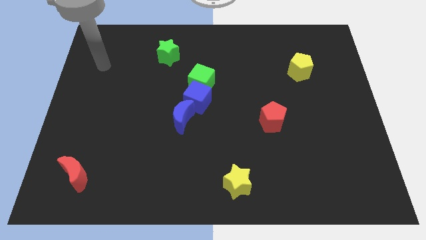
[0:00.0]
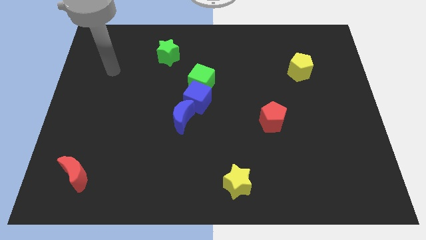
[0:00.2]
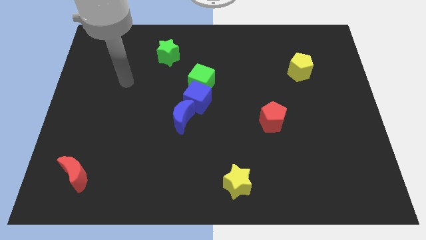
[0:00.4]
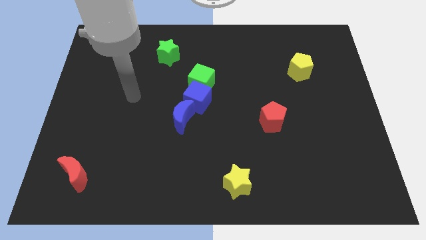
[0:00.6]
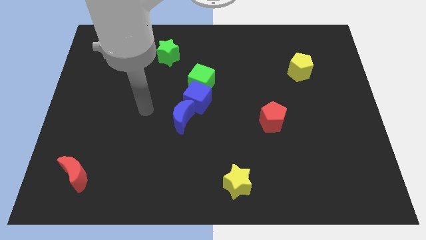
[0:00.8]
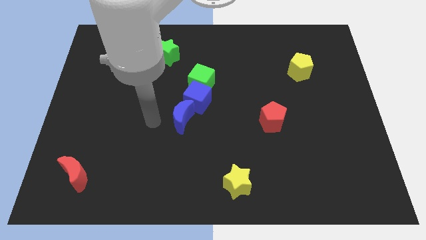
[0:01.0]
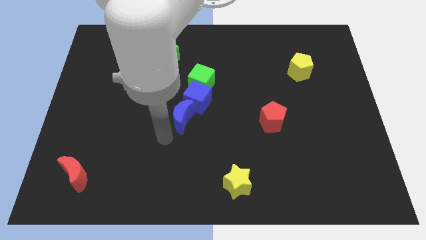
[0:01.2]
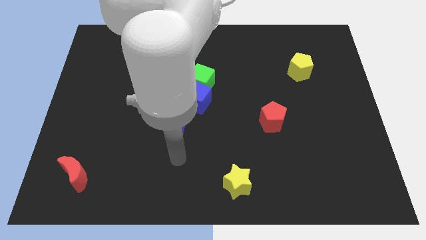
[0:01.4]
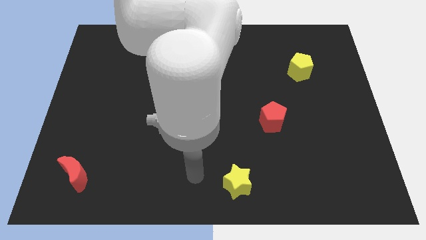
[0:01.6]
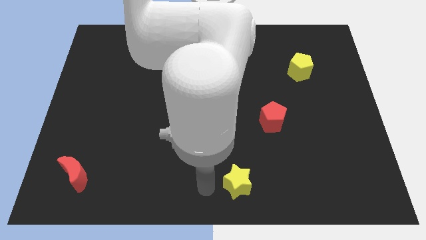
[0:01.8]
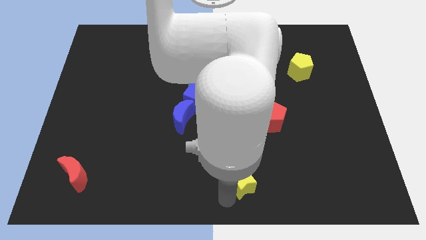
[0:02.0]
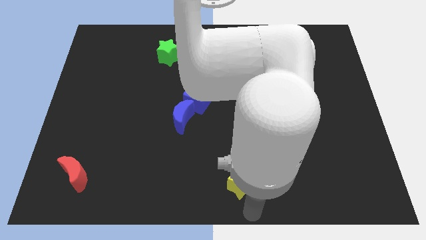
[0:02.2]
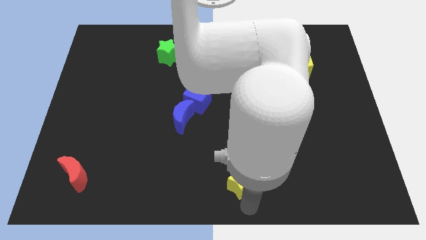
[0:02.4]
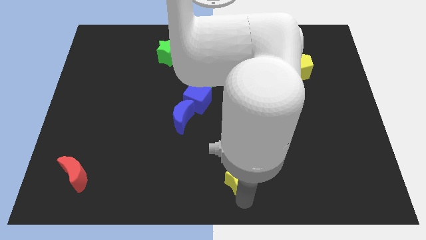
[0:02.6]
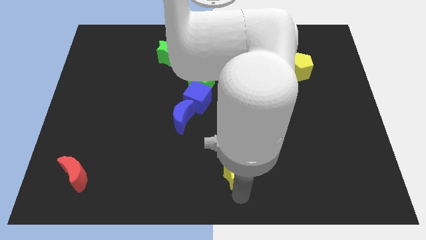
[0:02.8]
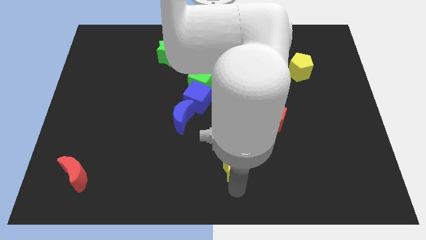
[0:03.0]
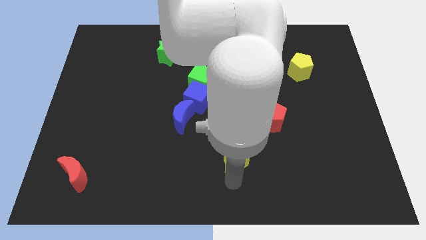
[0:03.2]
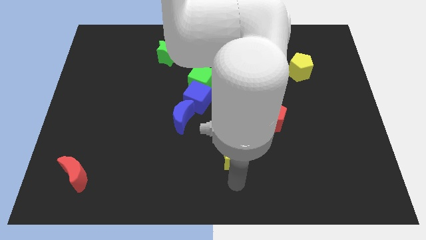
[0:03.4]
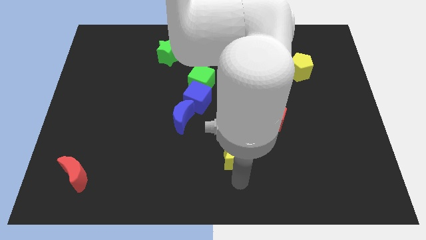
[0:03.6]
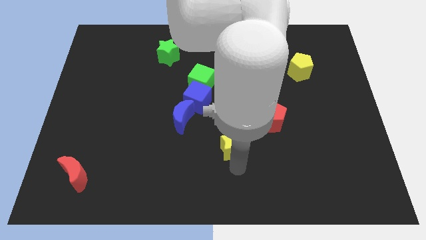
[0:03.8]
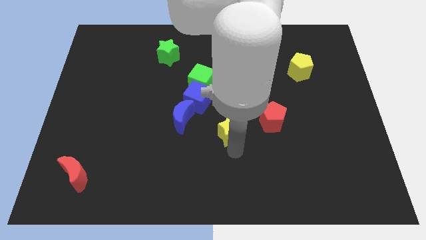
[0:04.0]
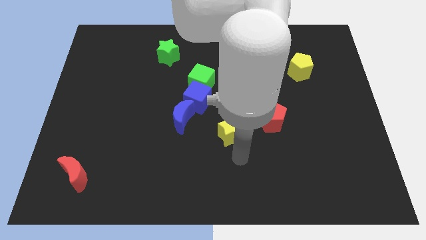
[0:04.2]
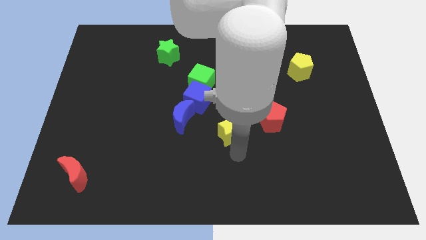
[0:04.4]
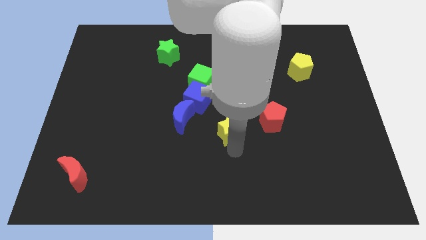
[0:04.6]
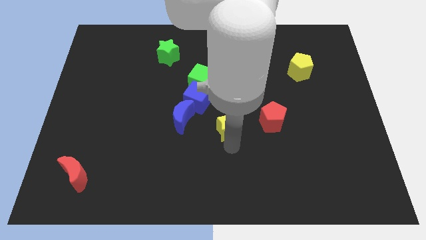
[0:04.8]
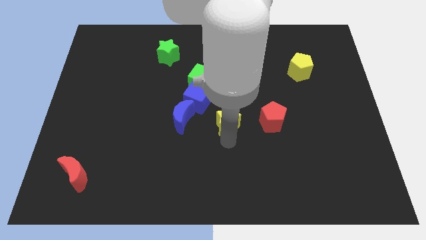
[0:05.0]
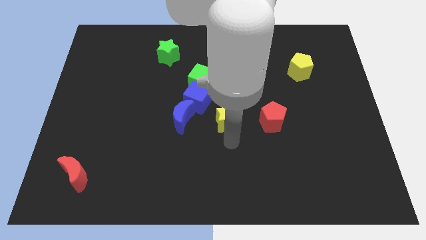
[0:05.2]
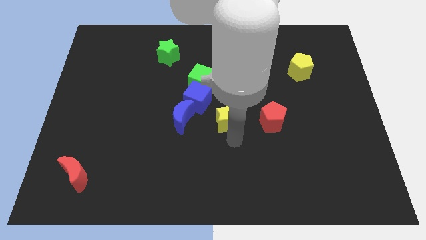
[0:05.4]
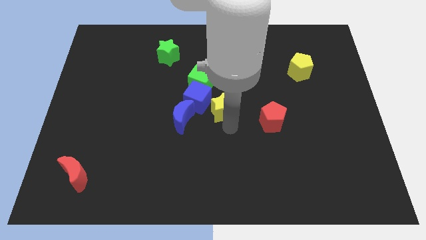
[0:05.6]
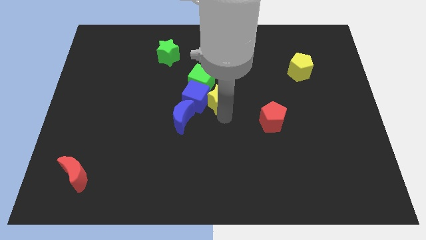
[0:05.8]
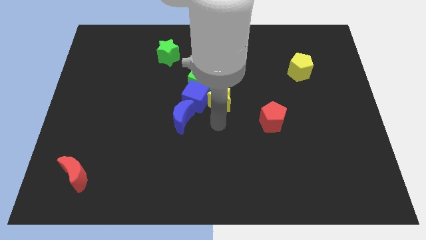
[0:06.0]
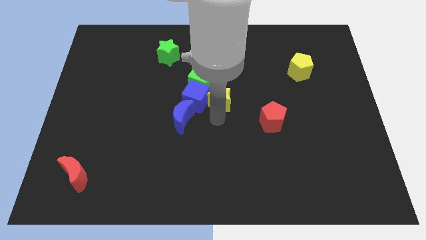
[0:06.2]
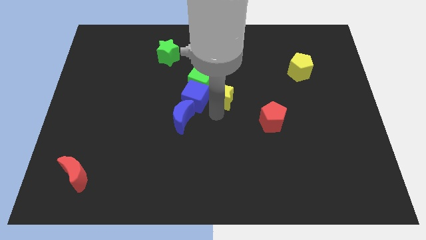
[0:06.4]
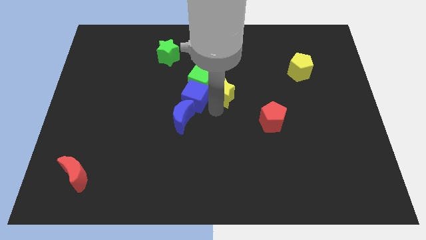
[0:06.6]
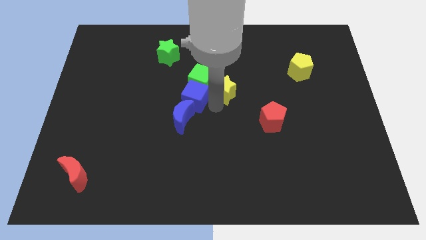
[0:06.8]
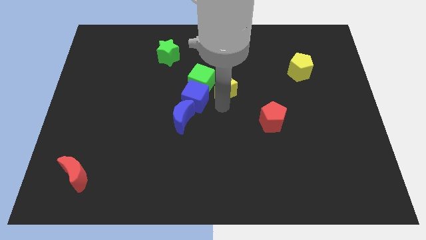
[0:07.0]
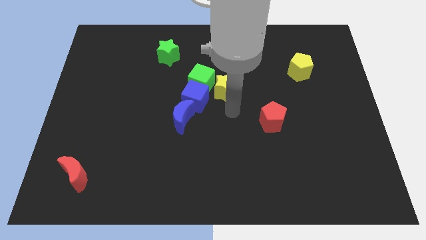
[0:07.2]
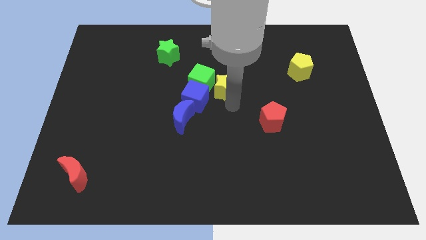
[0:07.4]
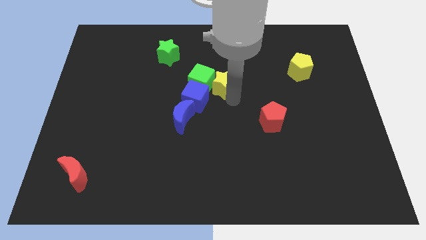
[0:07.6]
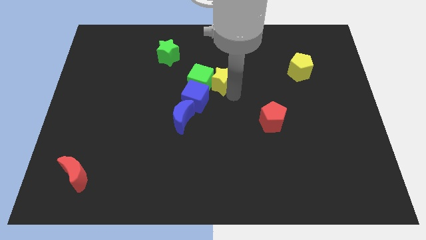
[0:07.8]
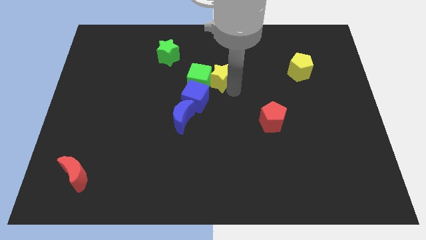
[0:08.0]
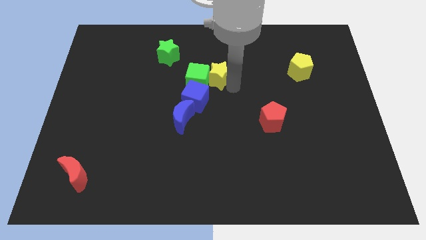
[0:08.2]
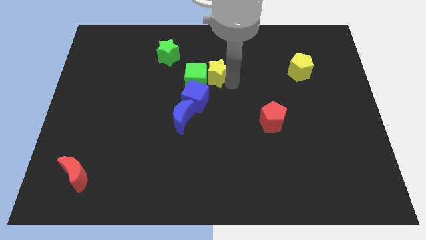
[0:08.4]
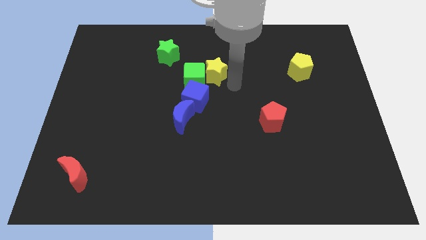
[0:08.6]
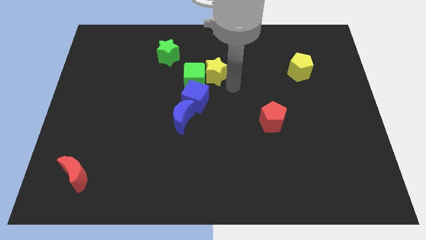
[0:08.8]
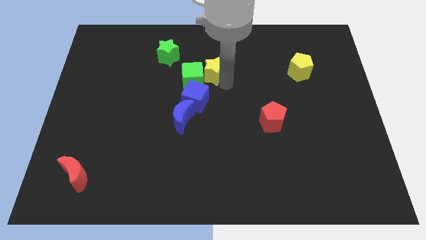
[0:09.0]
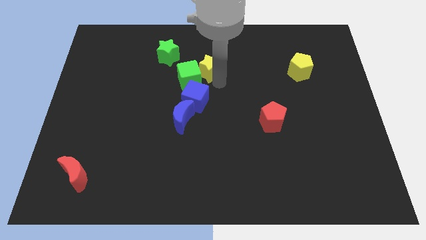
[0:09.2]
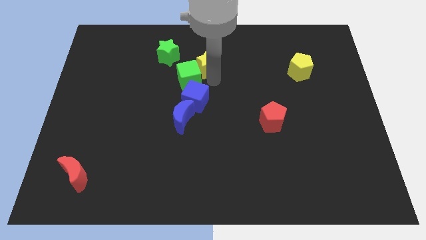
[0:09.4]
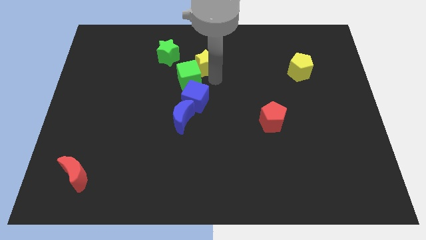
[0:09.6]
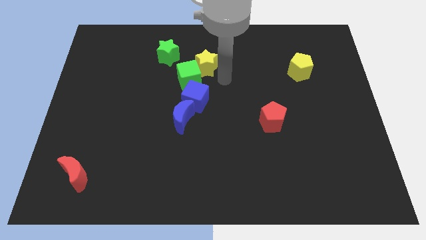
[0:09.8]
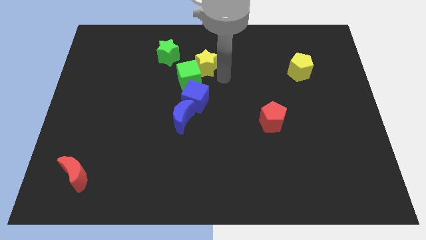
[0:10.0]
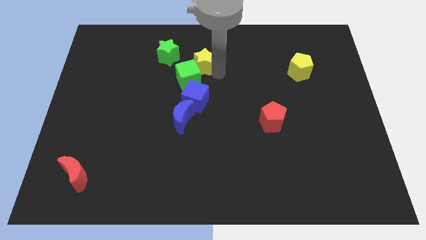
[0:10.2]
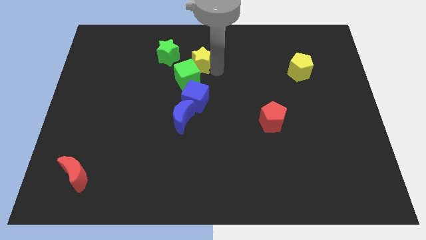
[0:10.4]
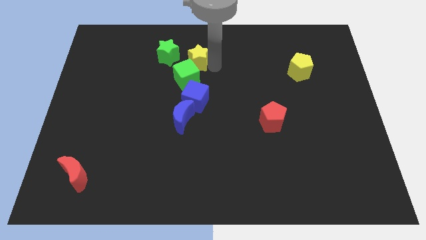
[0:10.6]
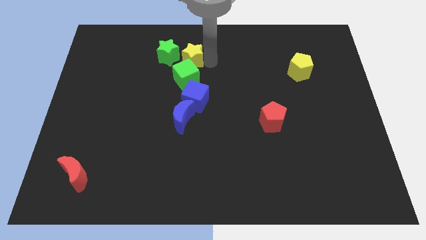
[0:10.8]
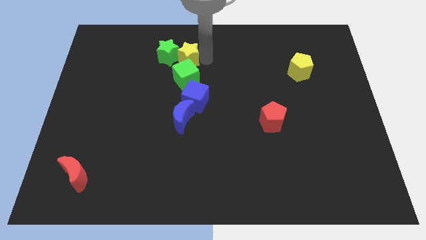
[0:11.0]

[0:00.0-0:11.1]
move the yellow star next to the green star

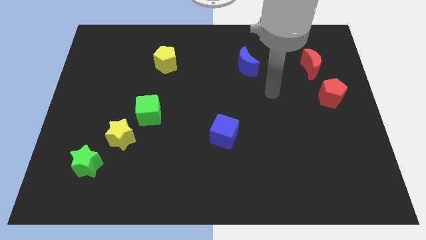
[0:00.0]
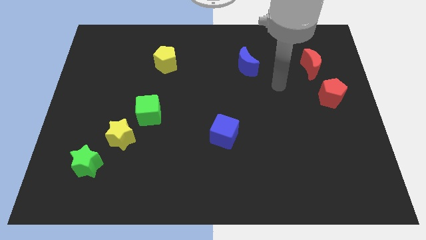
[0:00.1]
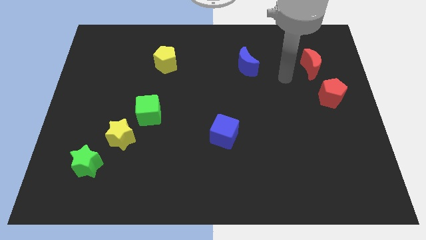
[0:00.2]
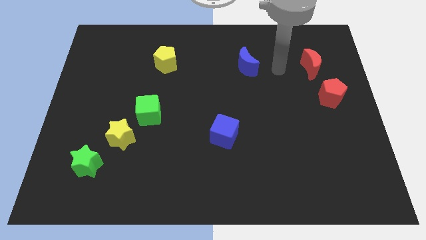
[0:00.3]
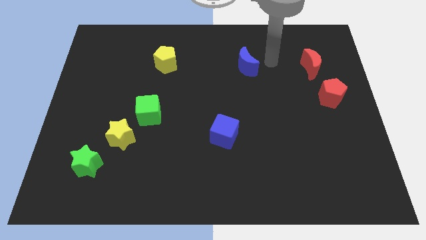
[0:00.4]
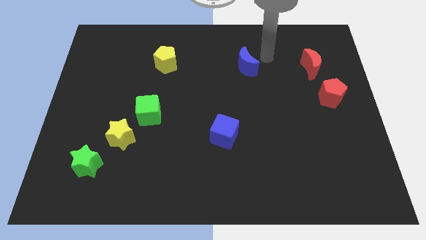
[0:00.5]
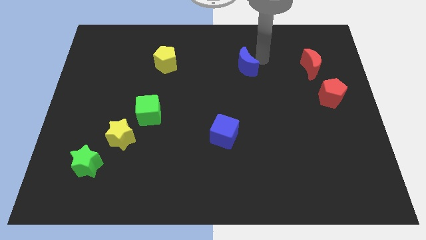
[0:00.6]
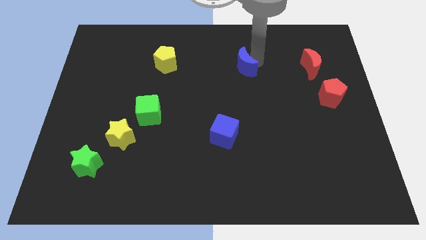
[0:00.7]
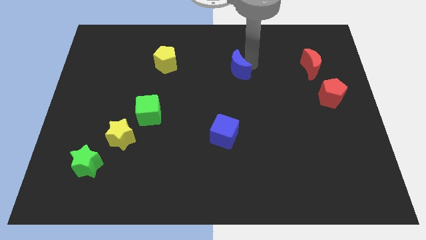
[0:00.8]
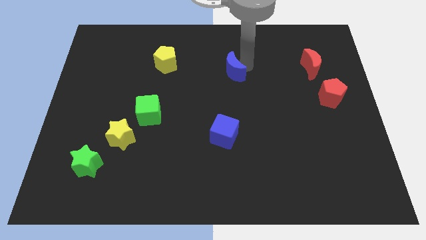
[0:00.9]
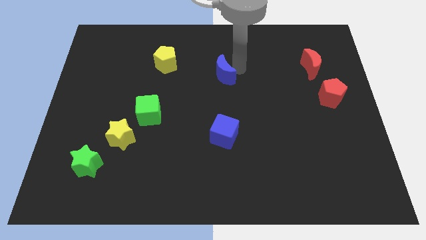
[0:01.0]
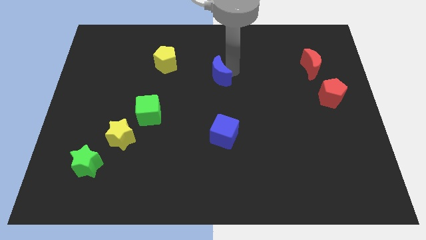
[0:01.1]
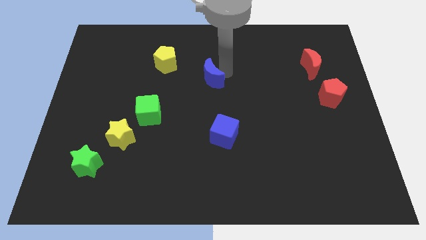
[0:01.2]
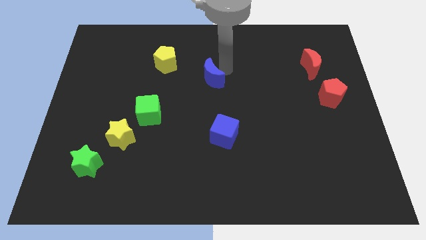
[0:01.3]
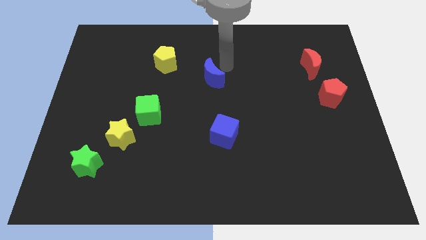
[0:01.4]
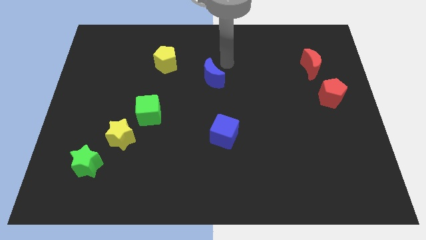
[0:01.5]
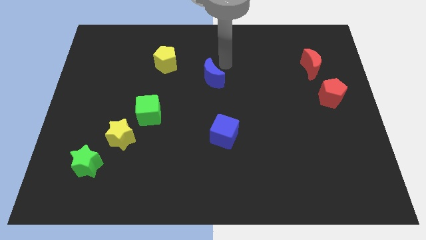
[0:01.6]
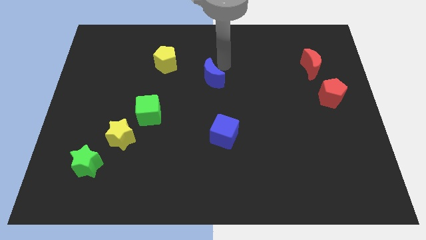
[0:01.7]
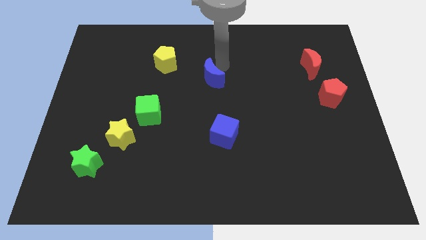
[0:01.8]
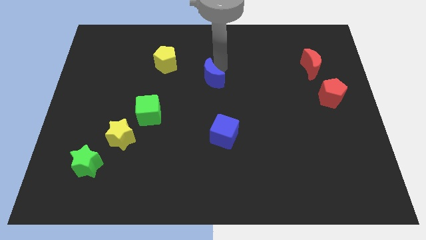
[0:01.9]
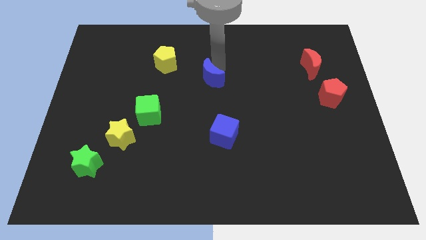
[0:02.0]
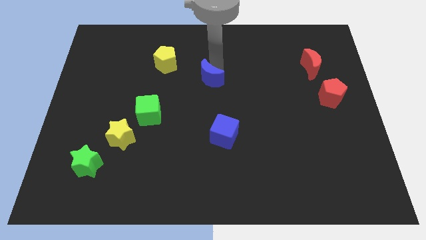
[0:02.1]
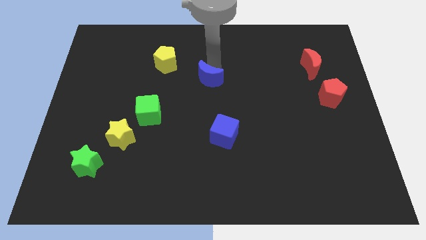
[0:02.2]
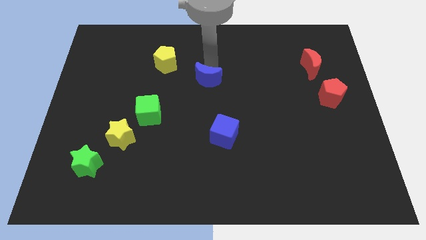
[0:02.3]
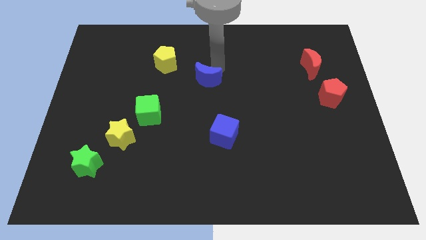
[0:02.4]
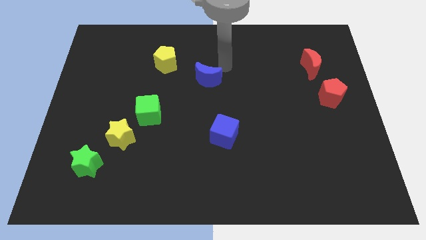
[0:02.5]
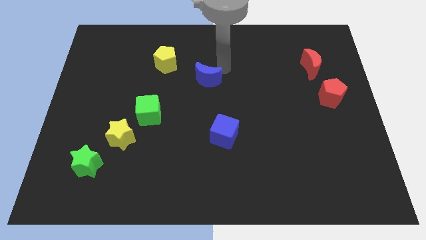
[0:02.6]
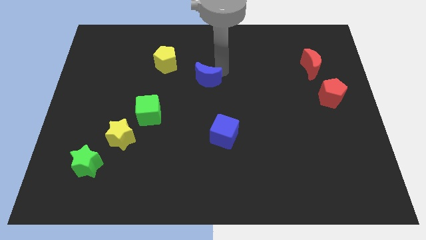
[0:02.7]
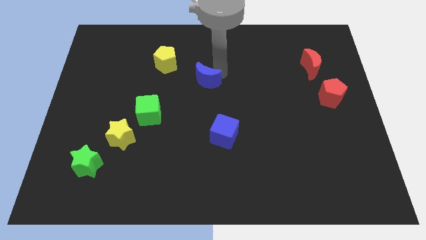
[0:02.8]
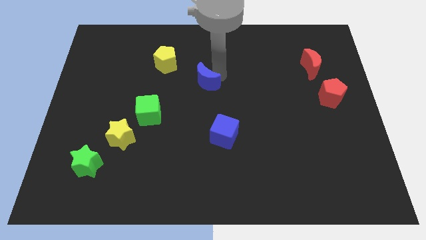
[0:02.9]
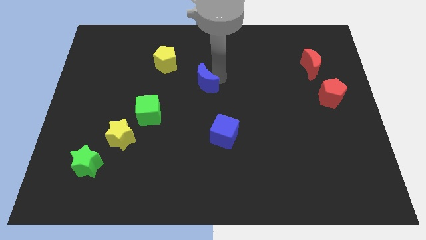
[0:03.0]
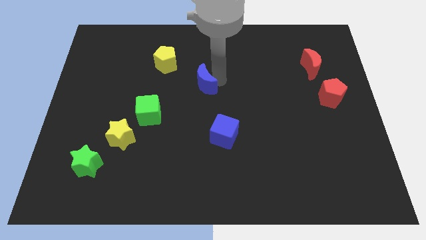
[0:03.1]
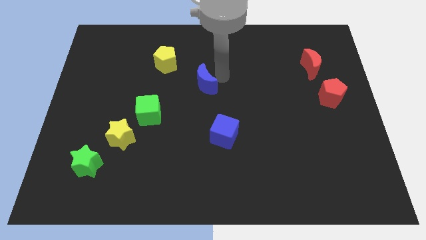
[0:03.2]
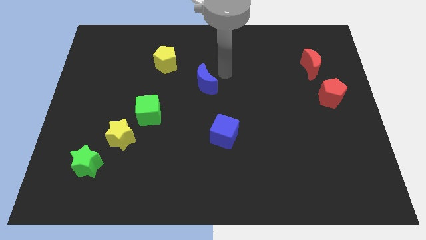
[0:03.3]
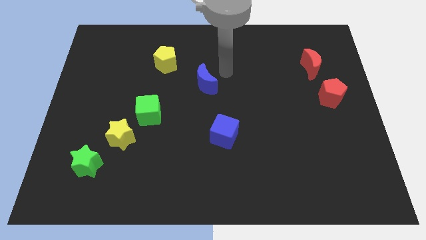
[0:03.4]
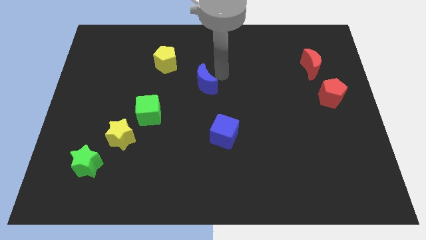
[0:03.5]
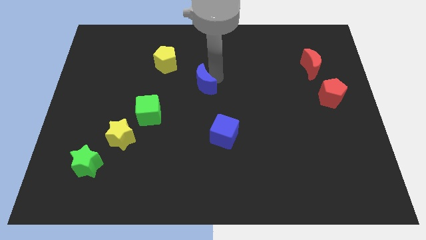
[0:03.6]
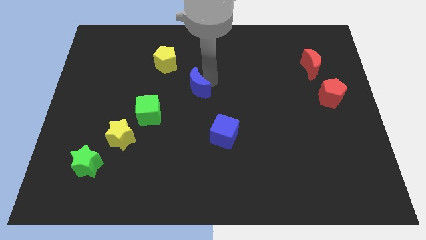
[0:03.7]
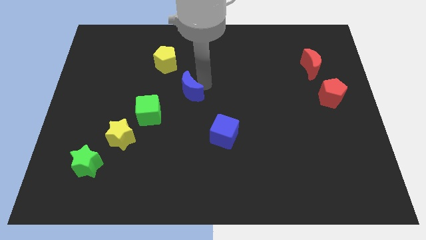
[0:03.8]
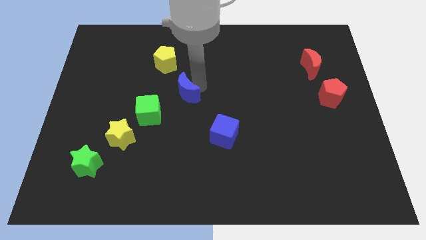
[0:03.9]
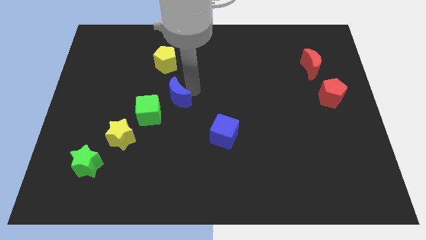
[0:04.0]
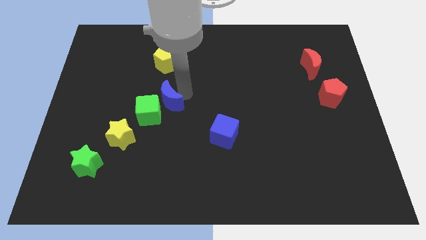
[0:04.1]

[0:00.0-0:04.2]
slide the blue moon close to the green cube
